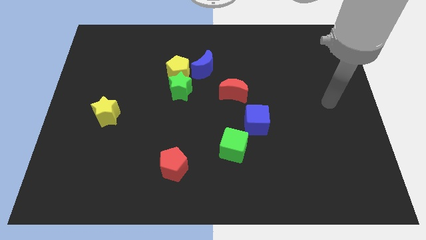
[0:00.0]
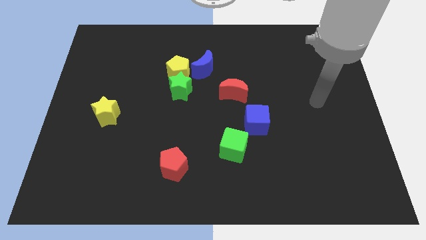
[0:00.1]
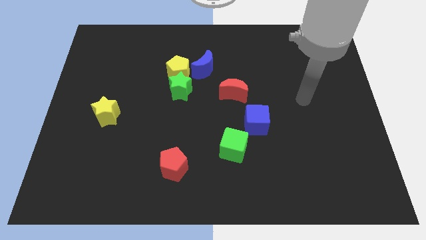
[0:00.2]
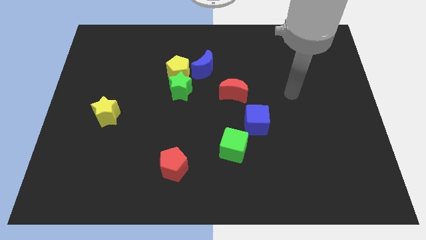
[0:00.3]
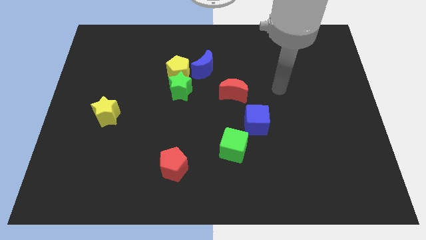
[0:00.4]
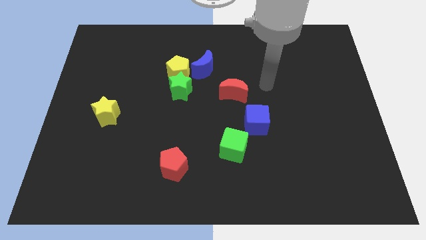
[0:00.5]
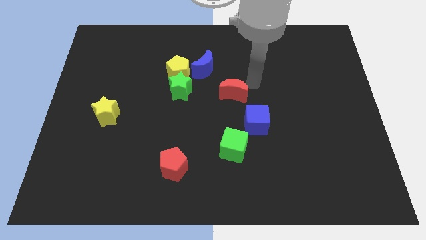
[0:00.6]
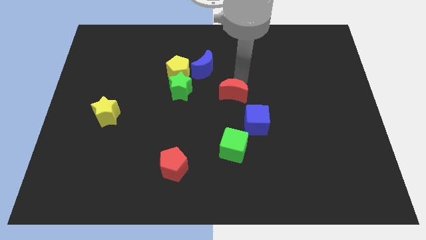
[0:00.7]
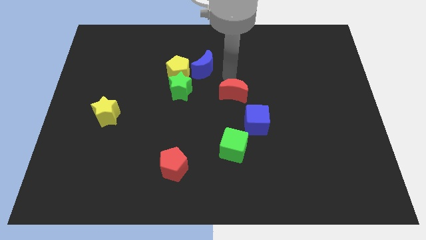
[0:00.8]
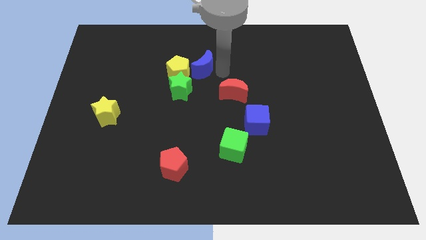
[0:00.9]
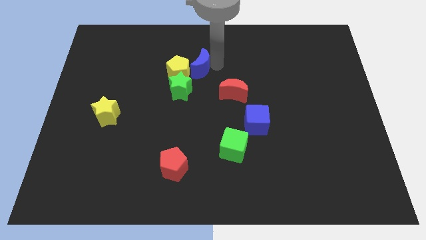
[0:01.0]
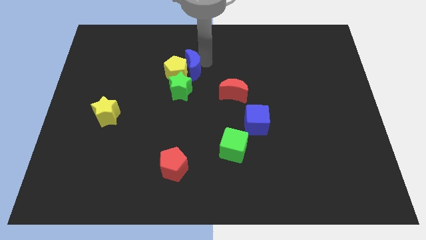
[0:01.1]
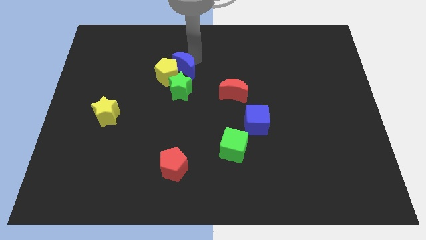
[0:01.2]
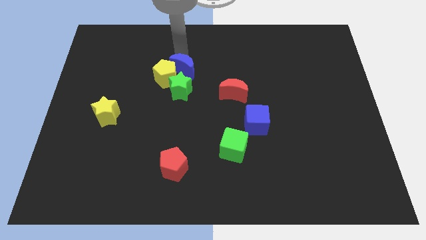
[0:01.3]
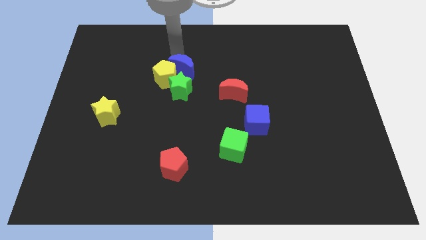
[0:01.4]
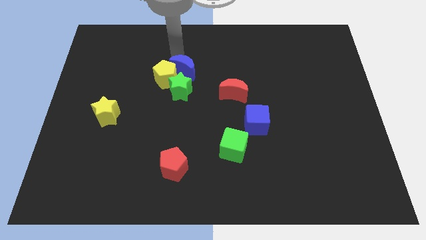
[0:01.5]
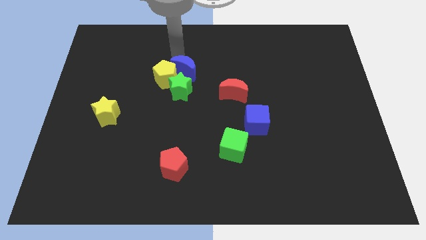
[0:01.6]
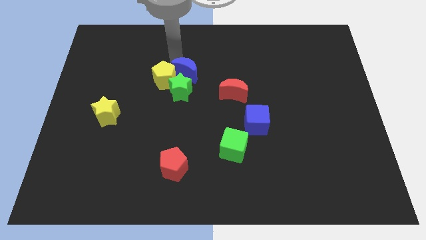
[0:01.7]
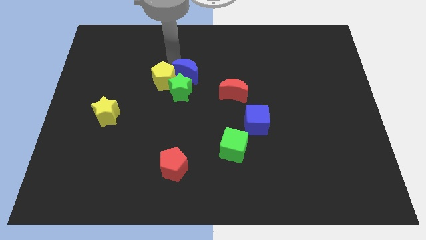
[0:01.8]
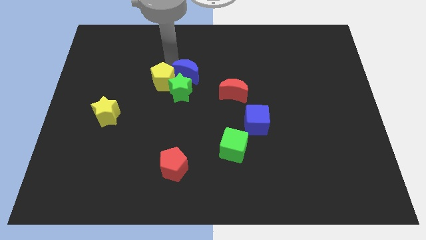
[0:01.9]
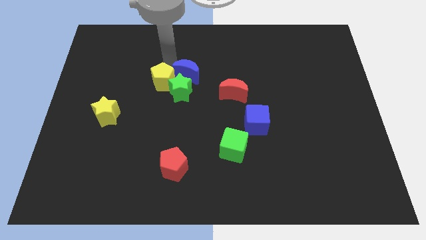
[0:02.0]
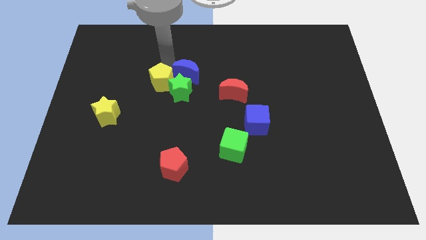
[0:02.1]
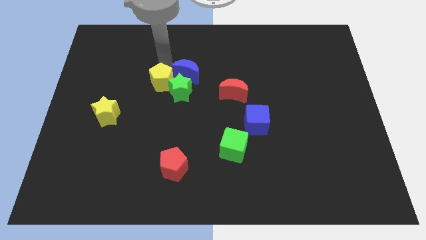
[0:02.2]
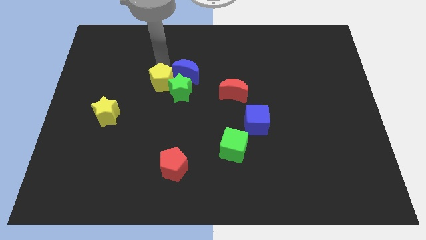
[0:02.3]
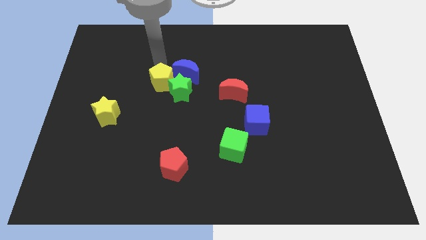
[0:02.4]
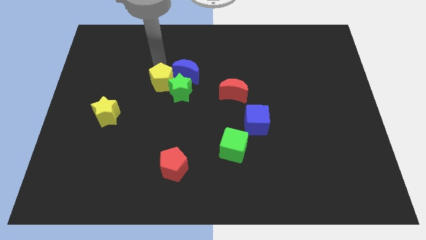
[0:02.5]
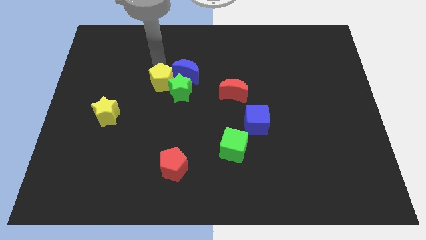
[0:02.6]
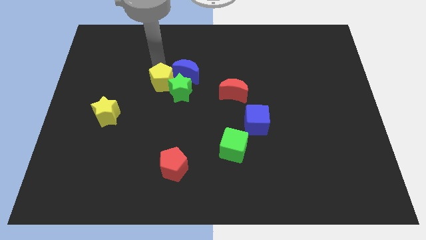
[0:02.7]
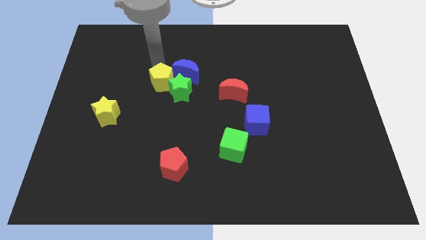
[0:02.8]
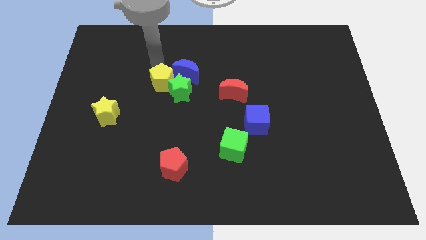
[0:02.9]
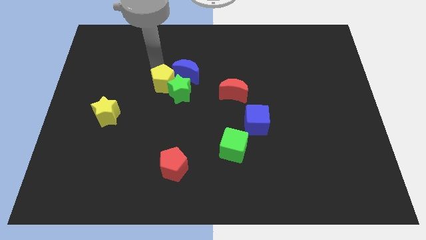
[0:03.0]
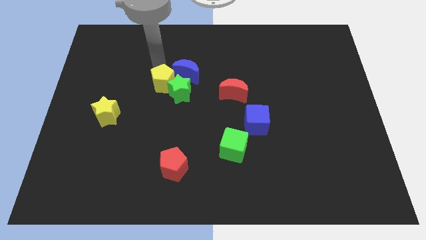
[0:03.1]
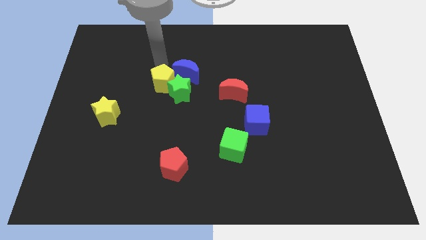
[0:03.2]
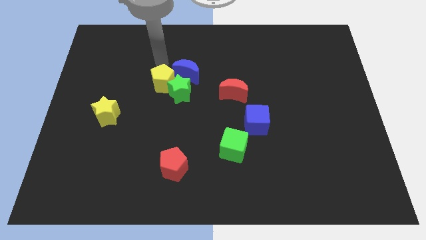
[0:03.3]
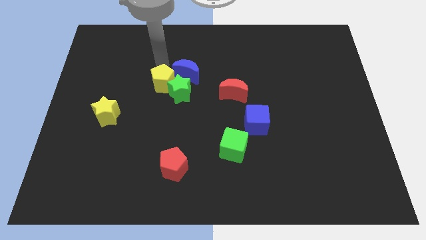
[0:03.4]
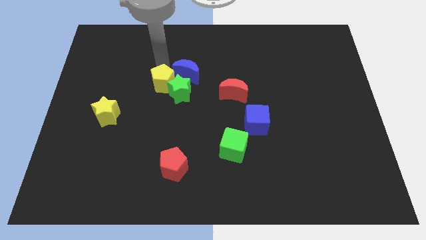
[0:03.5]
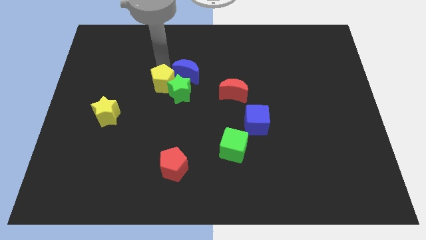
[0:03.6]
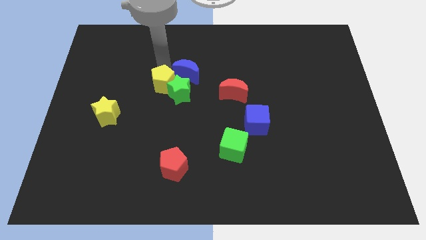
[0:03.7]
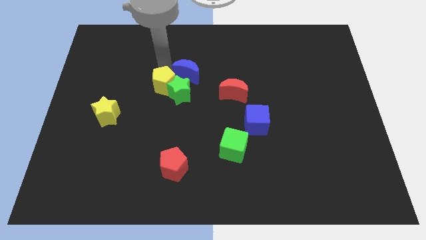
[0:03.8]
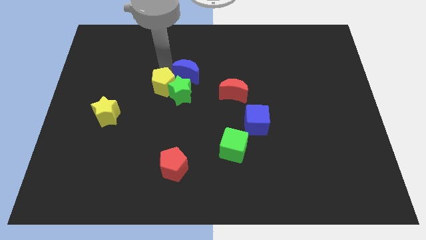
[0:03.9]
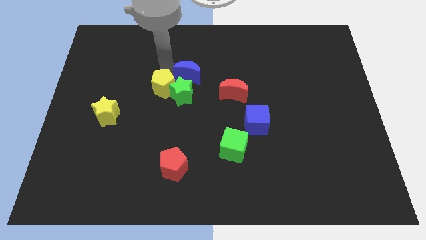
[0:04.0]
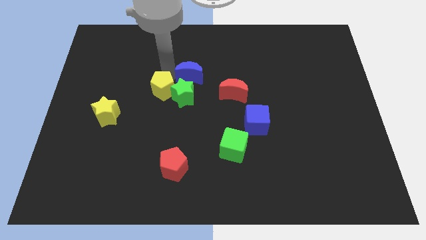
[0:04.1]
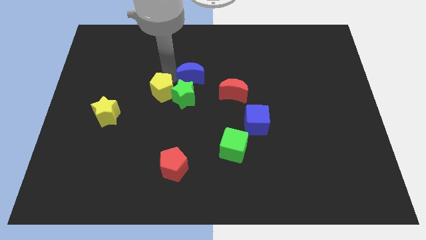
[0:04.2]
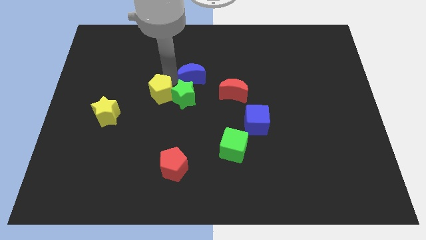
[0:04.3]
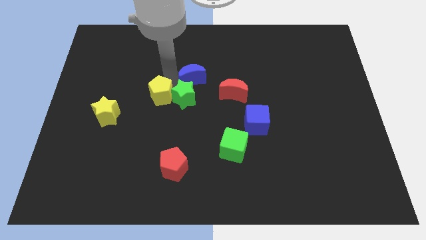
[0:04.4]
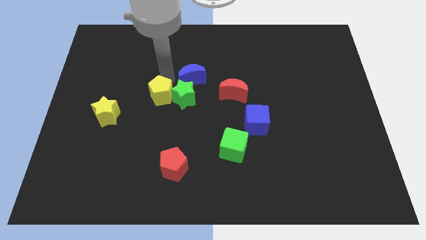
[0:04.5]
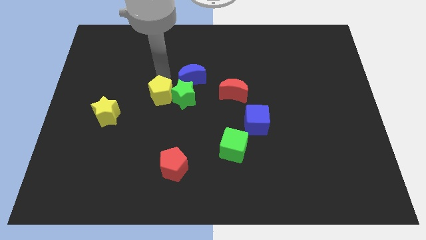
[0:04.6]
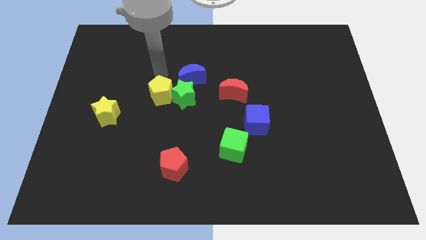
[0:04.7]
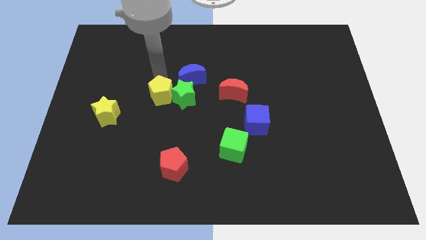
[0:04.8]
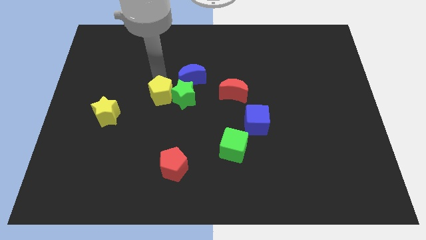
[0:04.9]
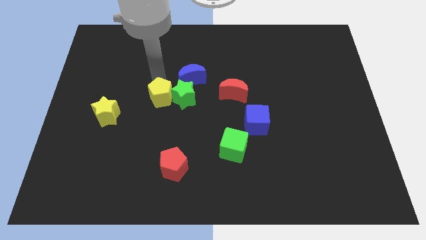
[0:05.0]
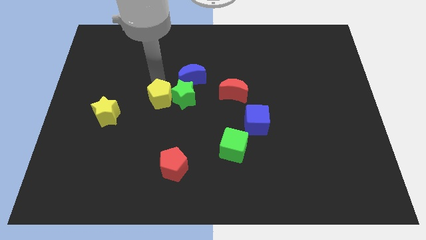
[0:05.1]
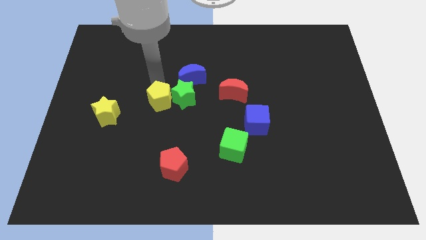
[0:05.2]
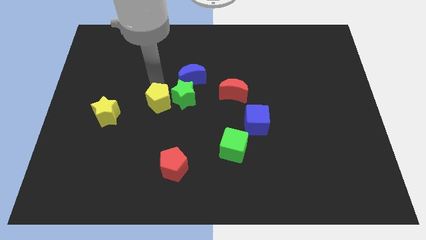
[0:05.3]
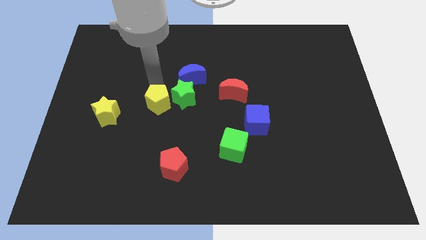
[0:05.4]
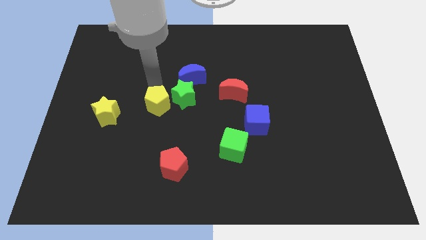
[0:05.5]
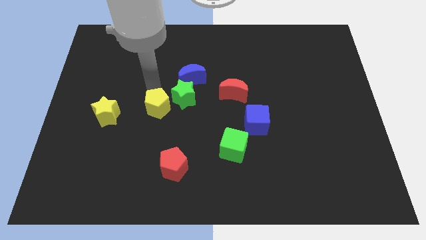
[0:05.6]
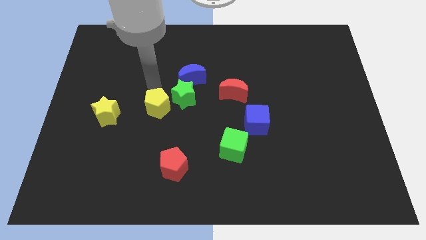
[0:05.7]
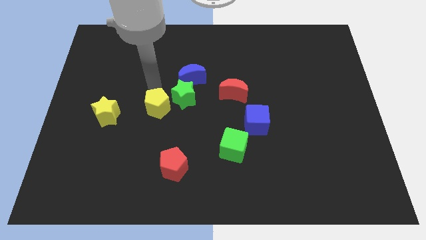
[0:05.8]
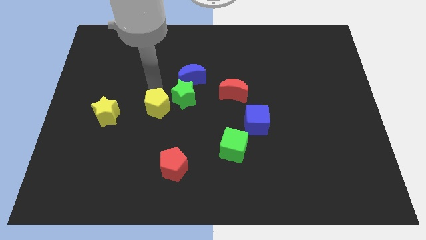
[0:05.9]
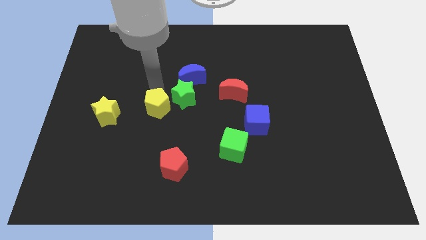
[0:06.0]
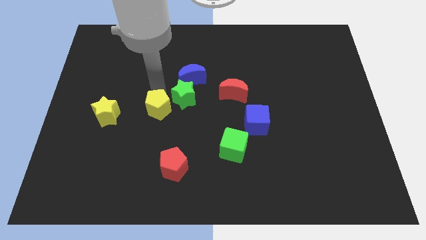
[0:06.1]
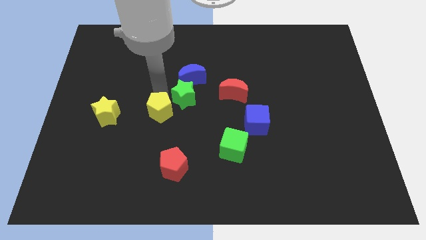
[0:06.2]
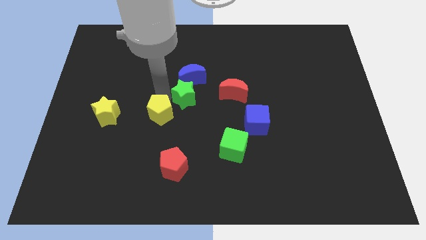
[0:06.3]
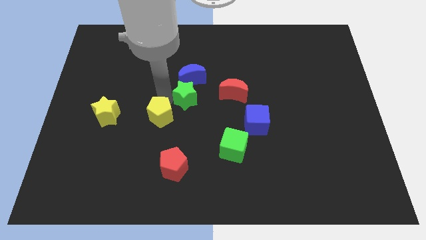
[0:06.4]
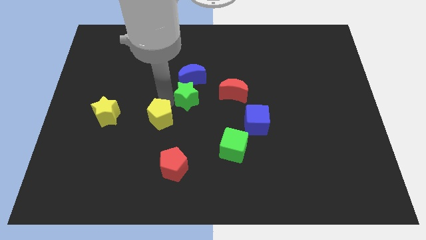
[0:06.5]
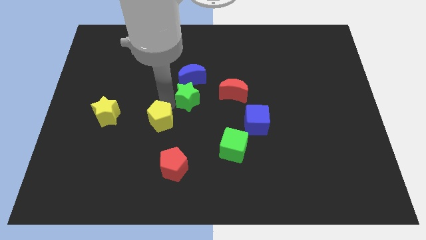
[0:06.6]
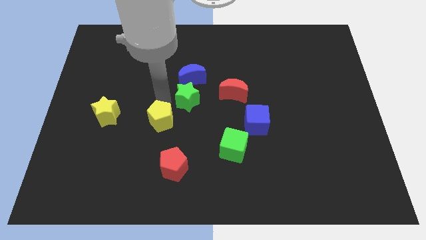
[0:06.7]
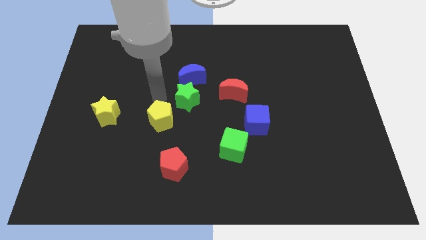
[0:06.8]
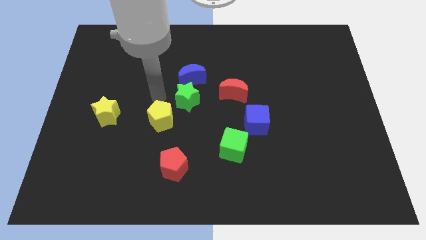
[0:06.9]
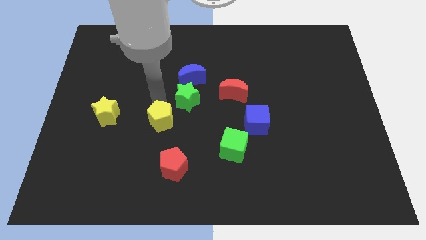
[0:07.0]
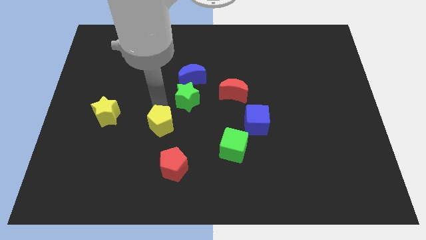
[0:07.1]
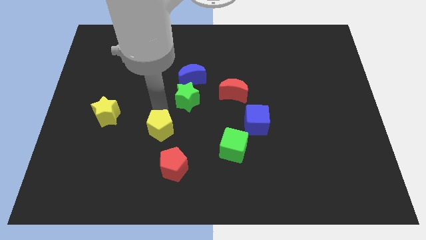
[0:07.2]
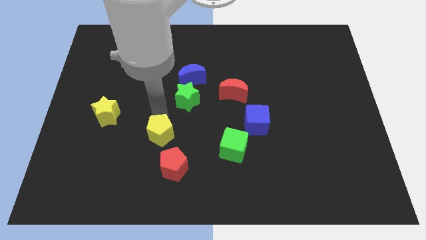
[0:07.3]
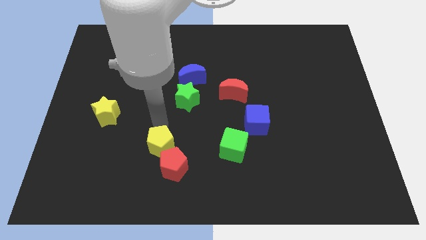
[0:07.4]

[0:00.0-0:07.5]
move the yellow pentagon towards the red pentagon

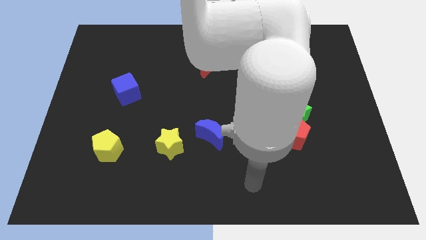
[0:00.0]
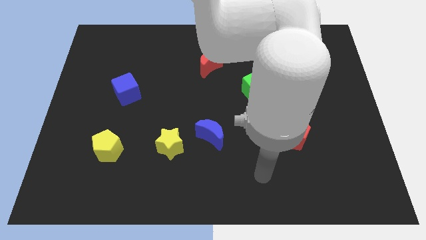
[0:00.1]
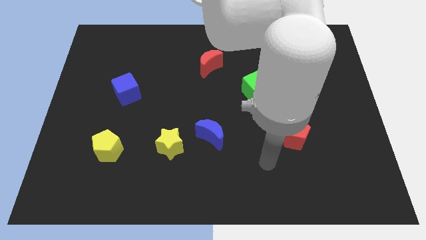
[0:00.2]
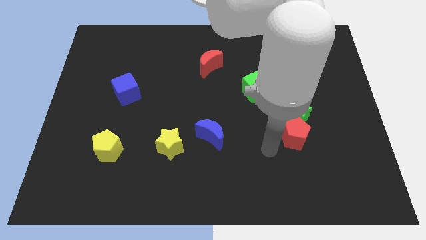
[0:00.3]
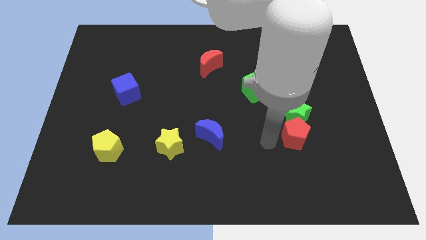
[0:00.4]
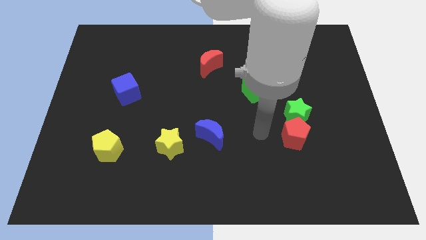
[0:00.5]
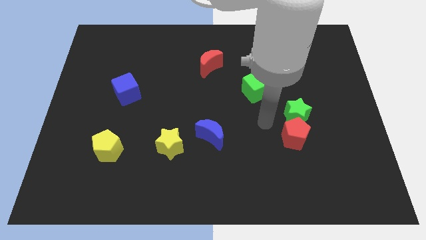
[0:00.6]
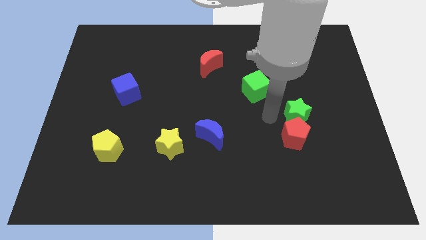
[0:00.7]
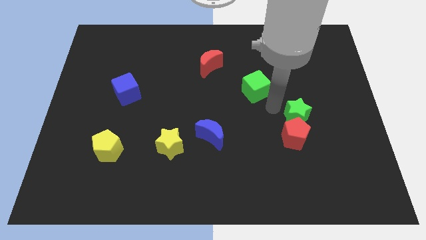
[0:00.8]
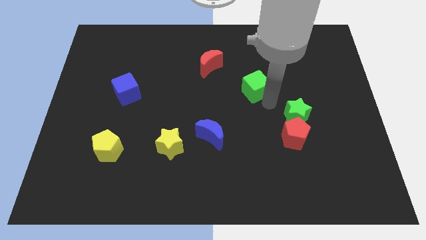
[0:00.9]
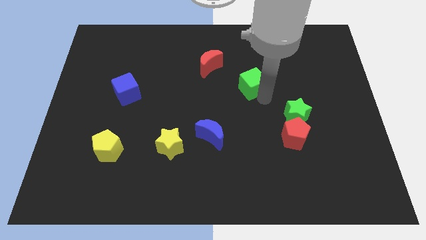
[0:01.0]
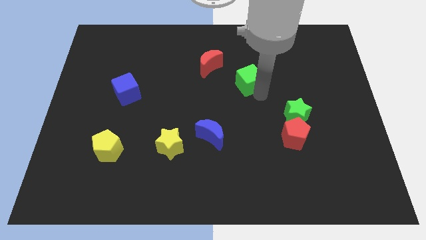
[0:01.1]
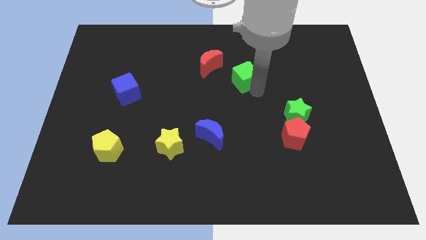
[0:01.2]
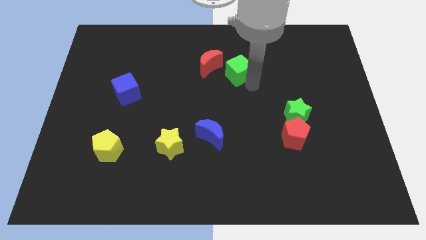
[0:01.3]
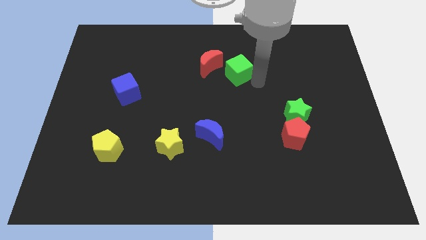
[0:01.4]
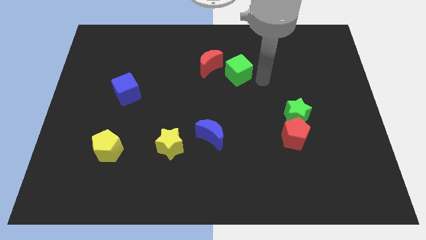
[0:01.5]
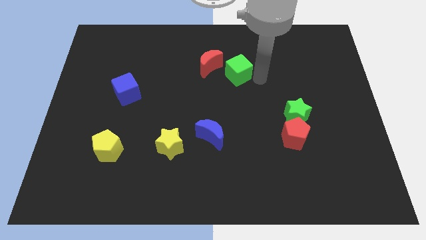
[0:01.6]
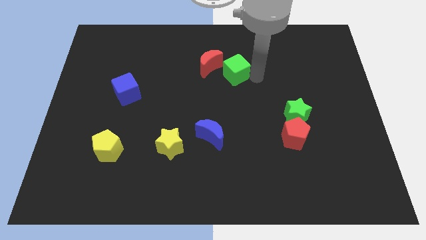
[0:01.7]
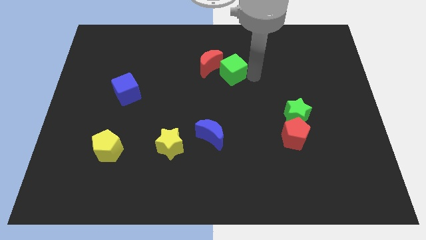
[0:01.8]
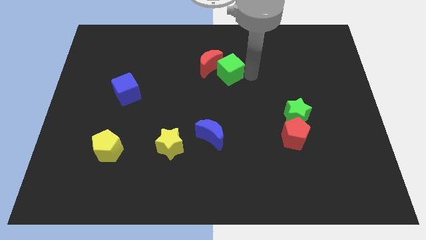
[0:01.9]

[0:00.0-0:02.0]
put the green cube to the red moon
